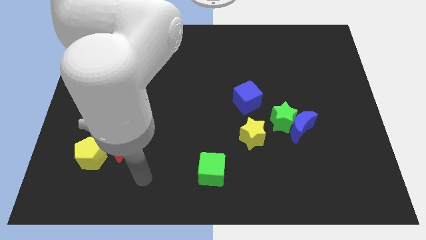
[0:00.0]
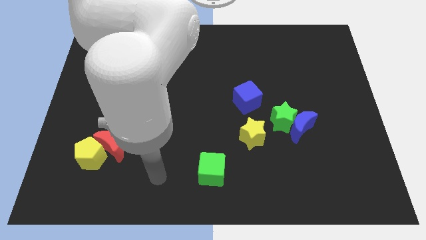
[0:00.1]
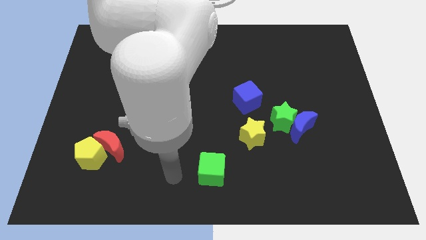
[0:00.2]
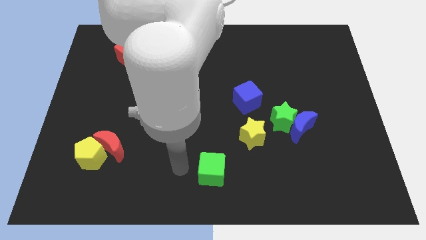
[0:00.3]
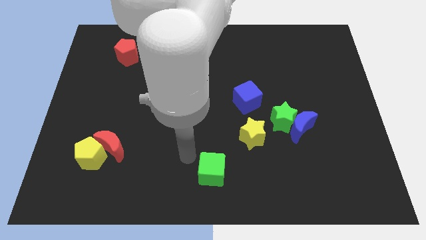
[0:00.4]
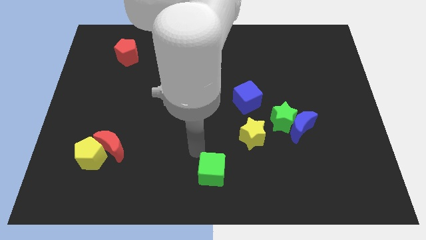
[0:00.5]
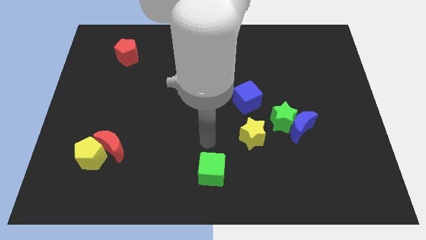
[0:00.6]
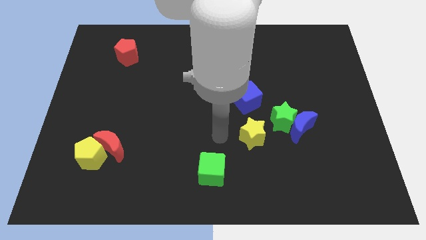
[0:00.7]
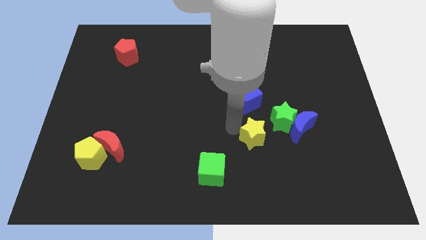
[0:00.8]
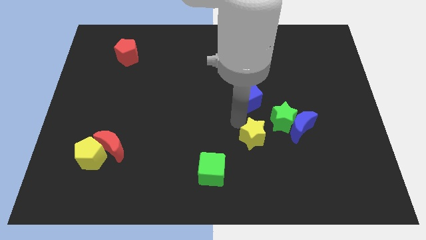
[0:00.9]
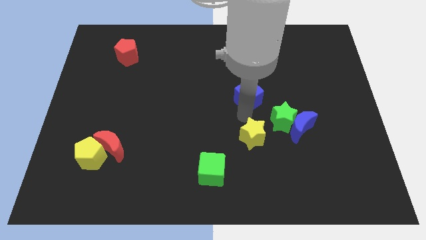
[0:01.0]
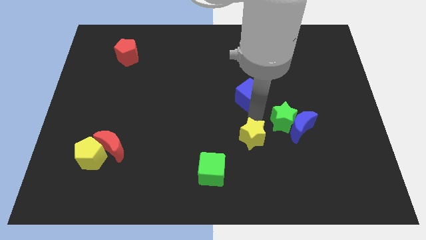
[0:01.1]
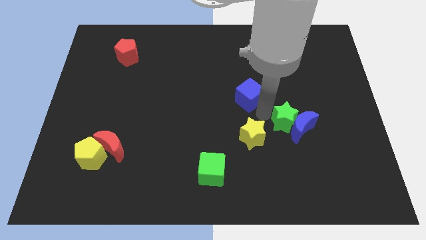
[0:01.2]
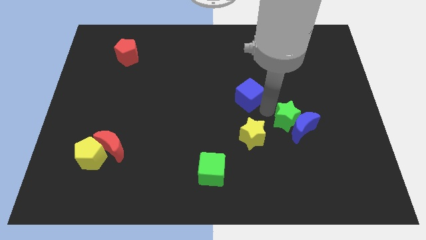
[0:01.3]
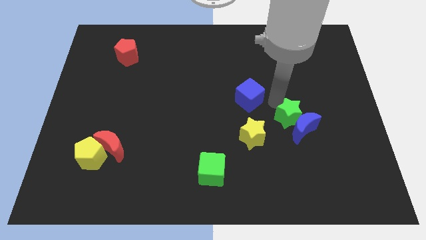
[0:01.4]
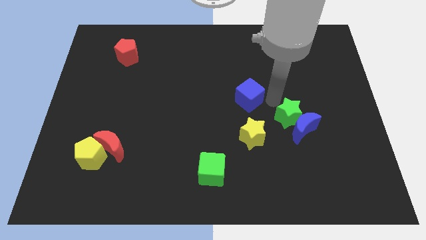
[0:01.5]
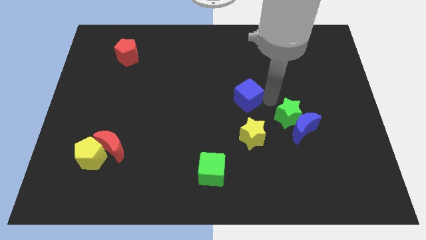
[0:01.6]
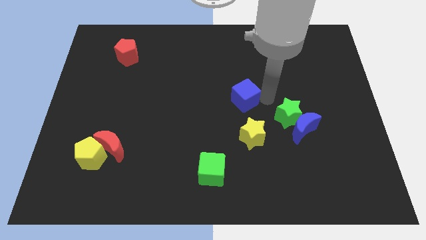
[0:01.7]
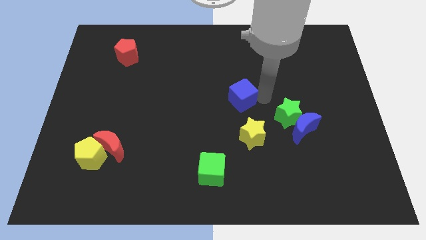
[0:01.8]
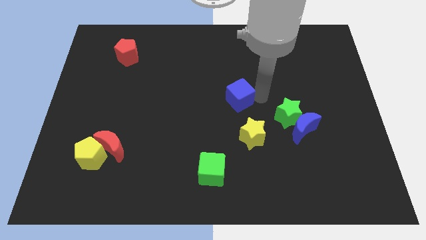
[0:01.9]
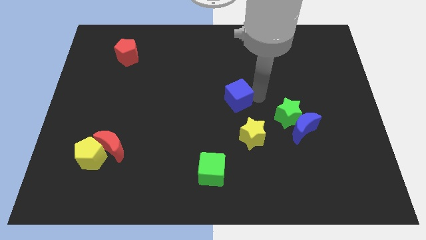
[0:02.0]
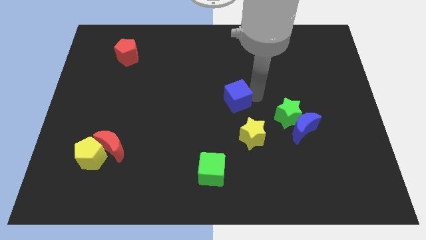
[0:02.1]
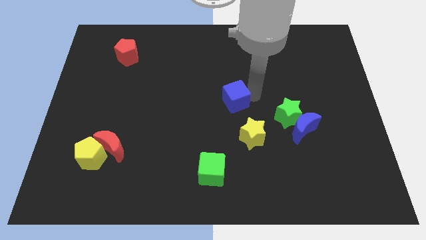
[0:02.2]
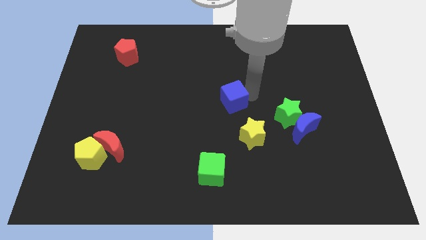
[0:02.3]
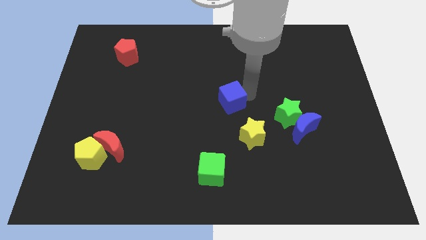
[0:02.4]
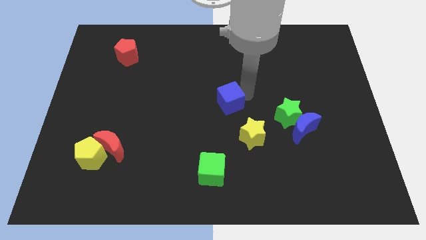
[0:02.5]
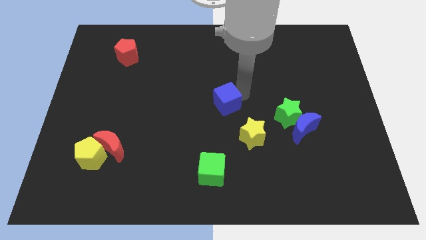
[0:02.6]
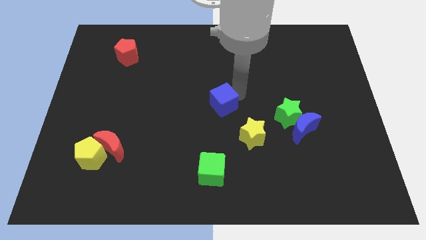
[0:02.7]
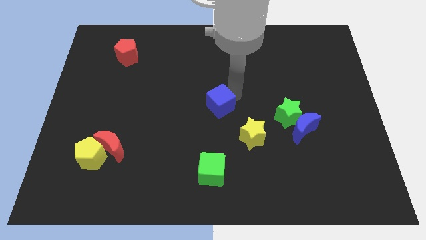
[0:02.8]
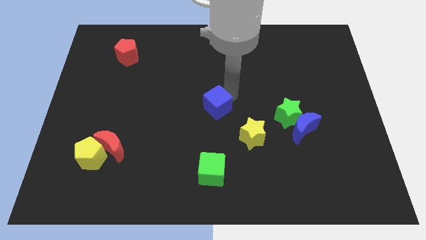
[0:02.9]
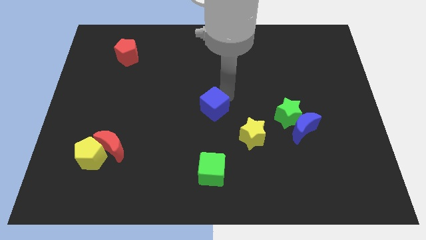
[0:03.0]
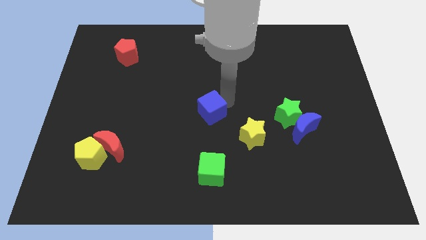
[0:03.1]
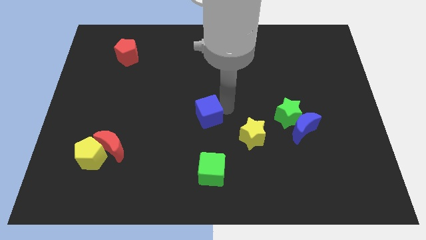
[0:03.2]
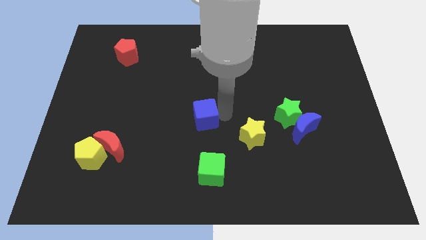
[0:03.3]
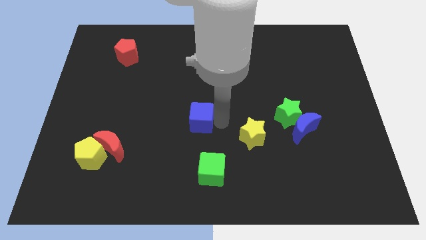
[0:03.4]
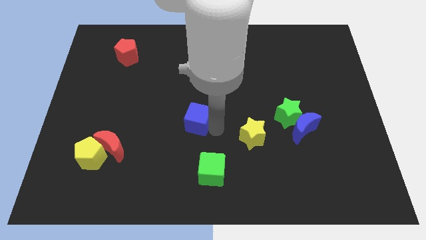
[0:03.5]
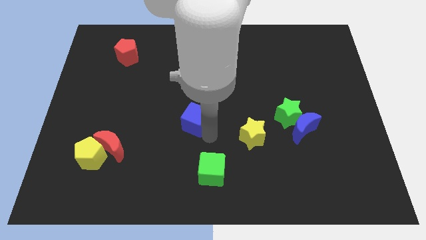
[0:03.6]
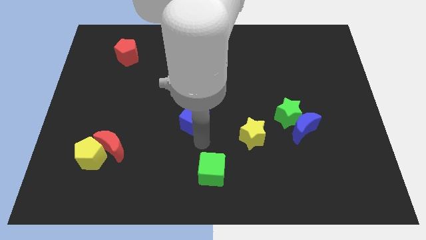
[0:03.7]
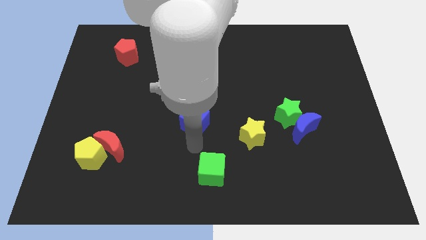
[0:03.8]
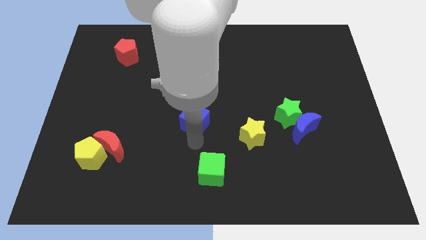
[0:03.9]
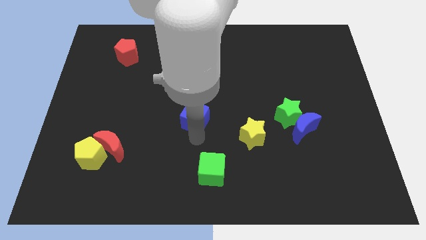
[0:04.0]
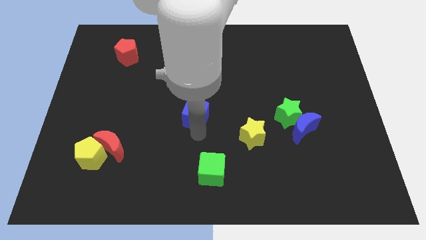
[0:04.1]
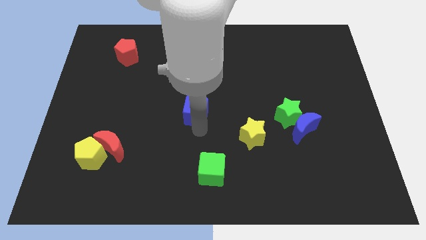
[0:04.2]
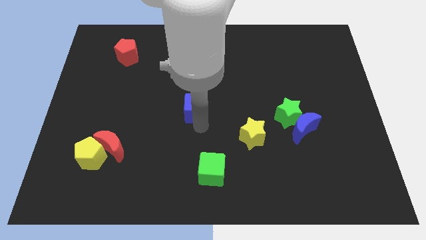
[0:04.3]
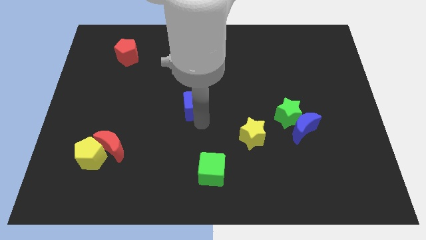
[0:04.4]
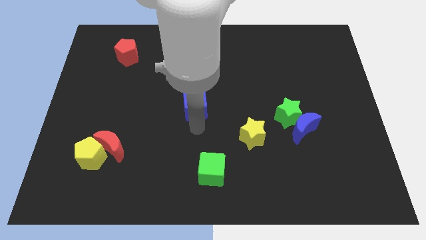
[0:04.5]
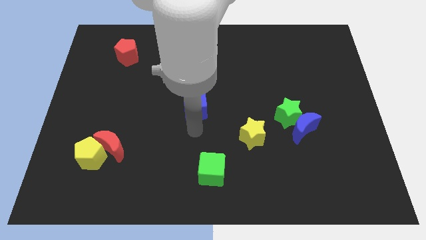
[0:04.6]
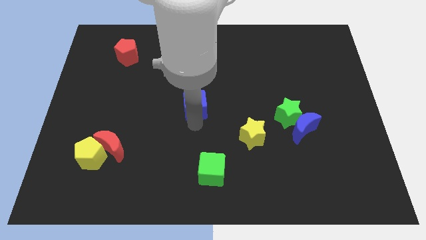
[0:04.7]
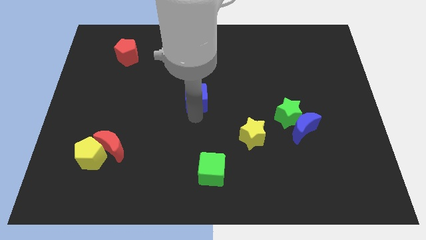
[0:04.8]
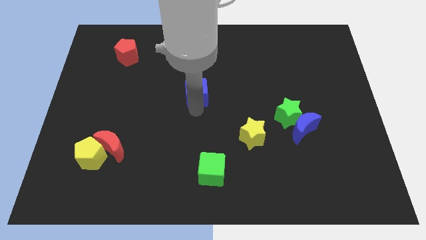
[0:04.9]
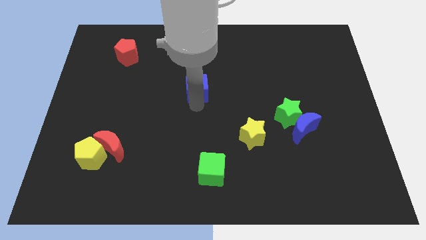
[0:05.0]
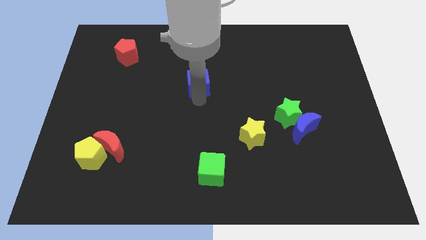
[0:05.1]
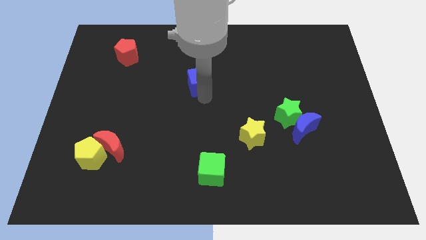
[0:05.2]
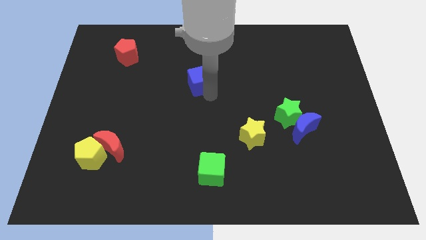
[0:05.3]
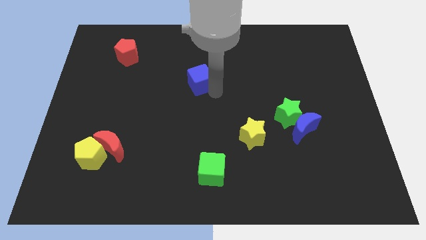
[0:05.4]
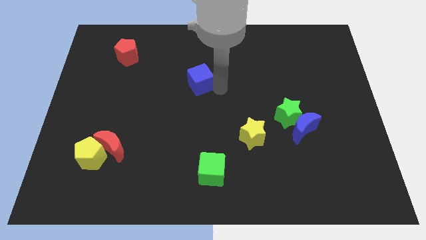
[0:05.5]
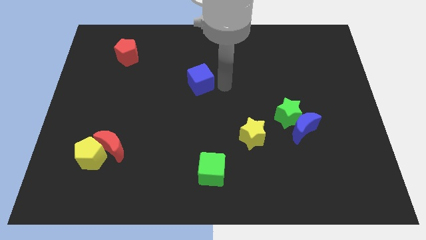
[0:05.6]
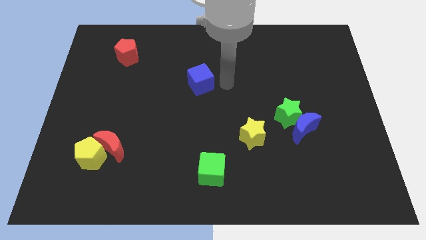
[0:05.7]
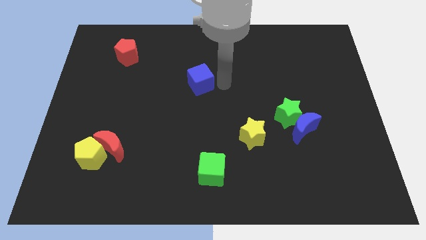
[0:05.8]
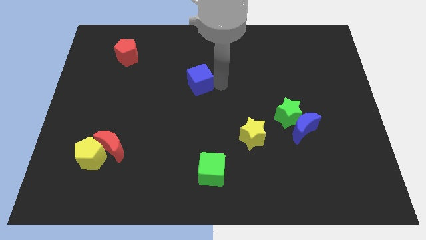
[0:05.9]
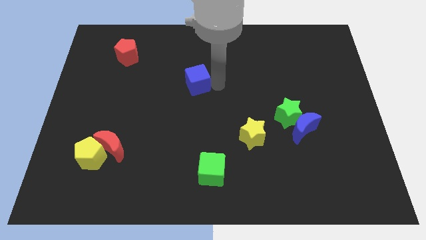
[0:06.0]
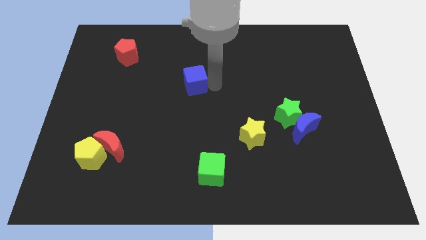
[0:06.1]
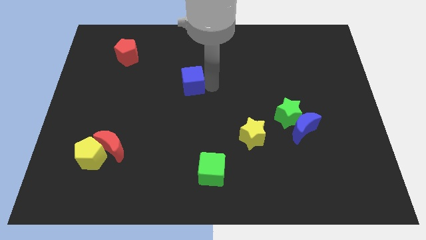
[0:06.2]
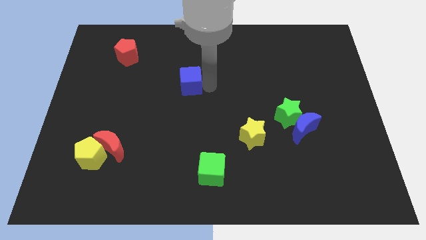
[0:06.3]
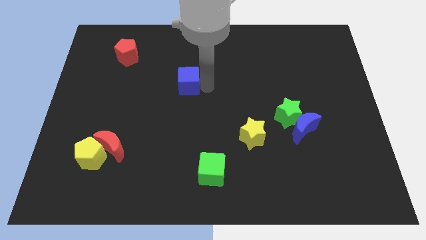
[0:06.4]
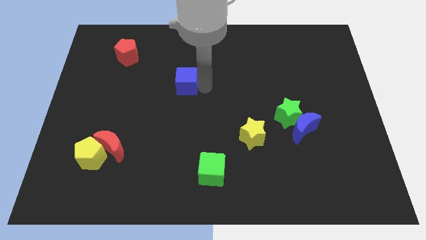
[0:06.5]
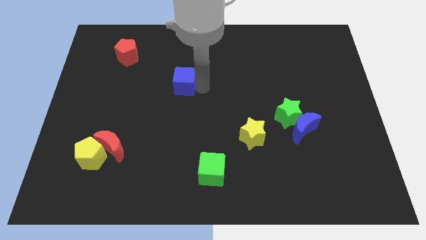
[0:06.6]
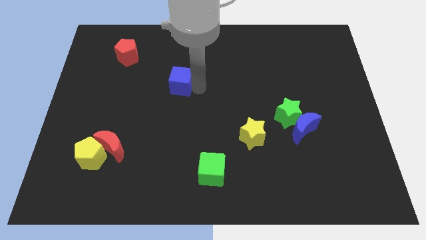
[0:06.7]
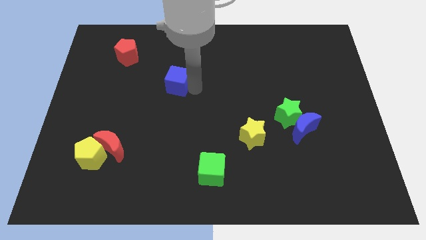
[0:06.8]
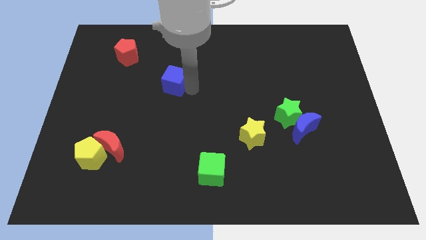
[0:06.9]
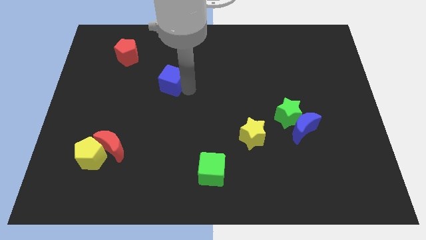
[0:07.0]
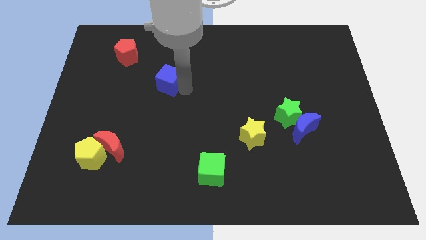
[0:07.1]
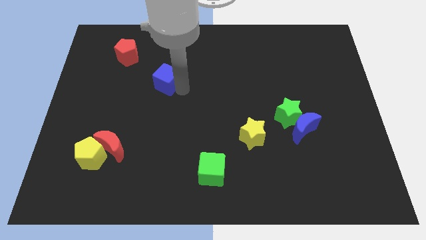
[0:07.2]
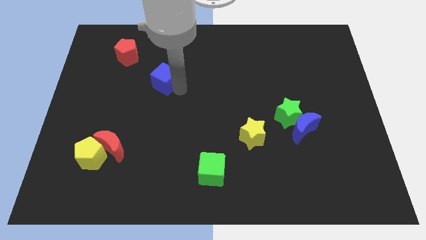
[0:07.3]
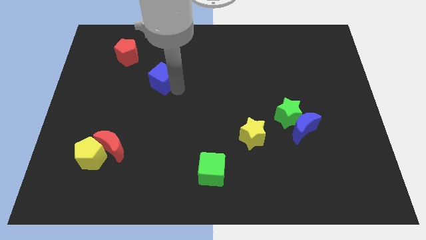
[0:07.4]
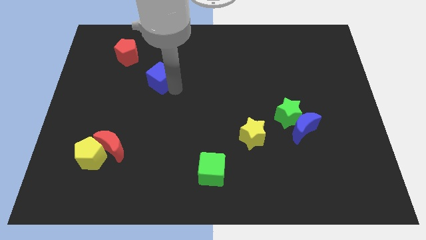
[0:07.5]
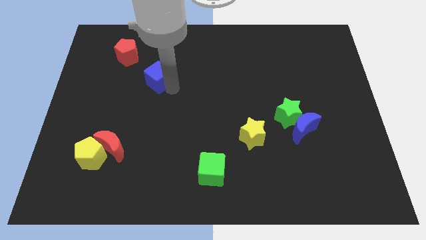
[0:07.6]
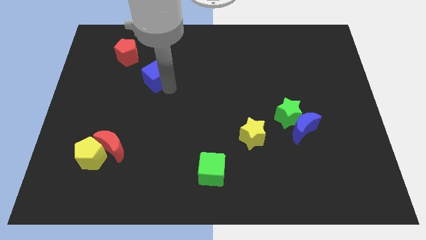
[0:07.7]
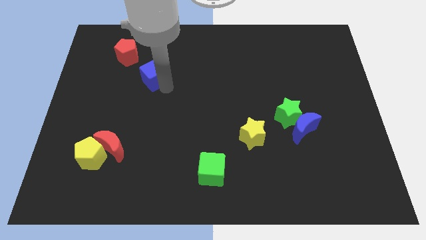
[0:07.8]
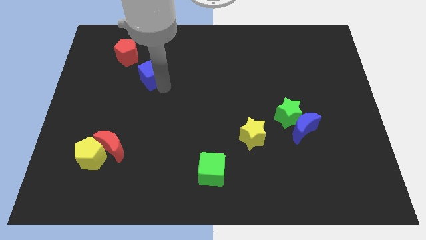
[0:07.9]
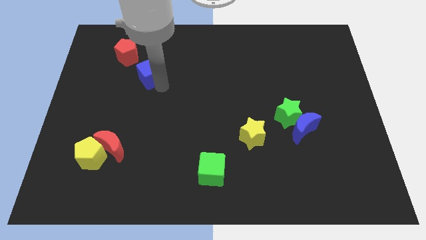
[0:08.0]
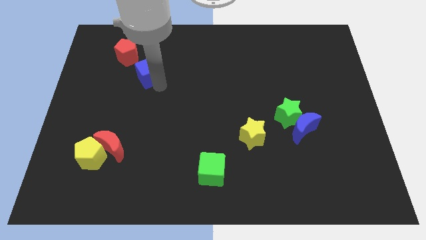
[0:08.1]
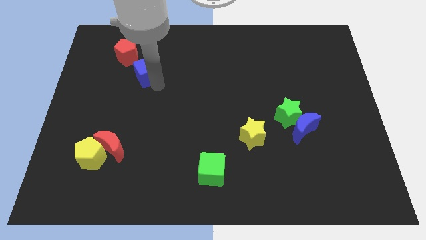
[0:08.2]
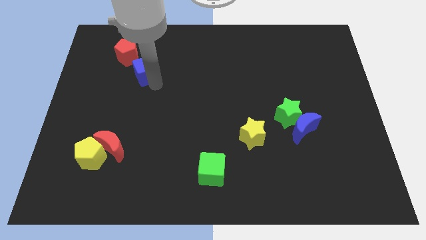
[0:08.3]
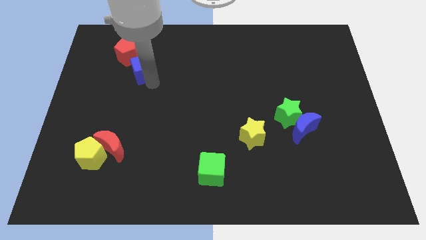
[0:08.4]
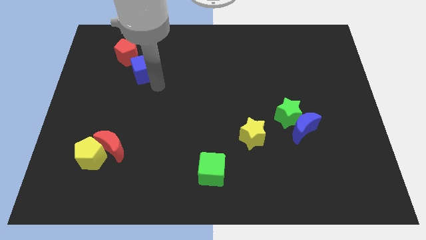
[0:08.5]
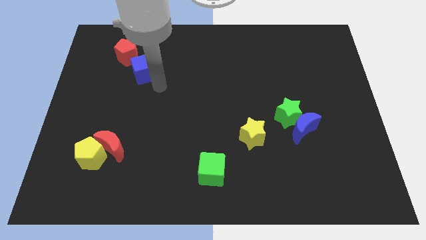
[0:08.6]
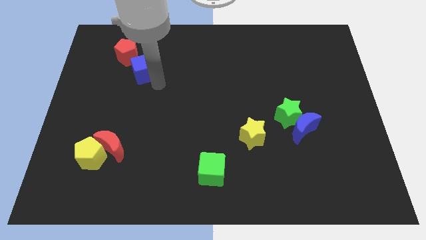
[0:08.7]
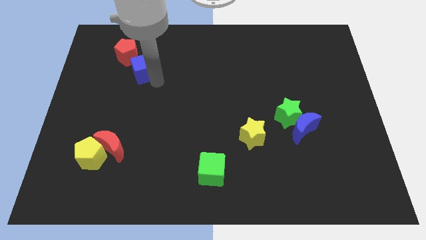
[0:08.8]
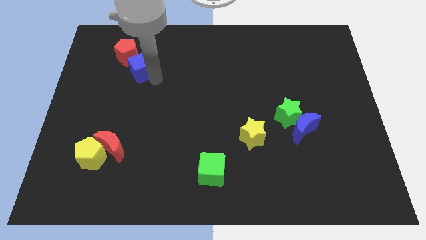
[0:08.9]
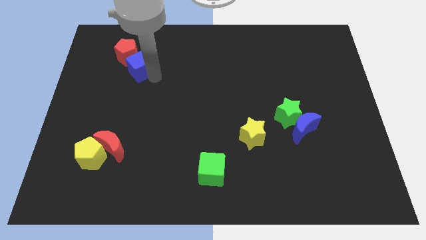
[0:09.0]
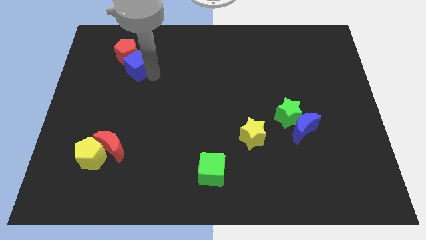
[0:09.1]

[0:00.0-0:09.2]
move the blue cube to the red pentagon
